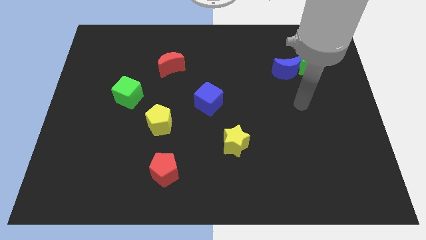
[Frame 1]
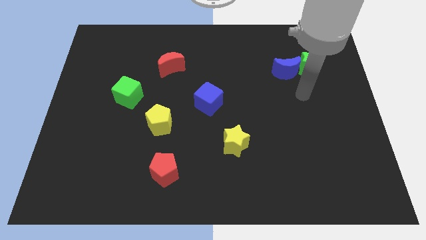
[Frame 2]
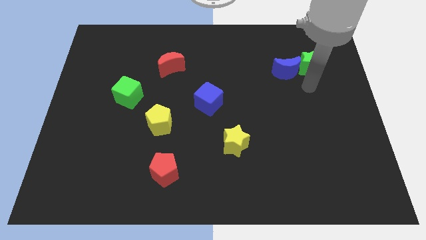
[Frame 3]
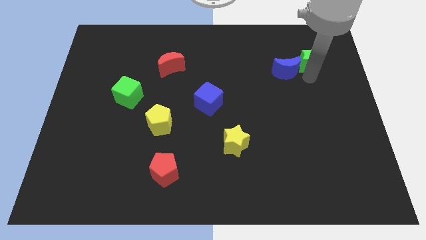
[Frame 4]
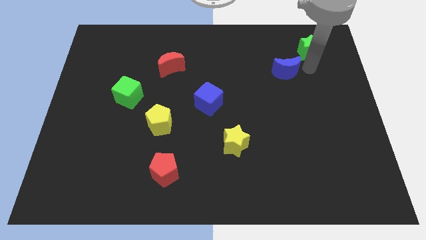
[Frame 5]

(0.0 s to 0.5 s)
move the blue moon away from the green star

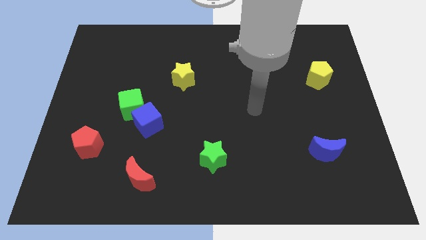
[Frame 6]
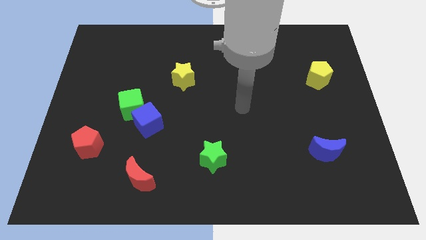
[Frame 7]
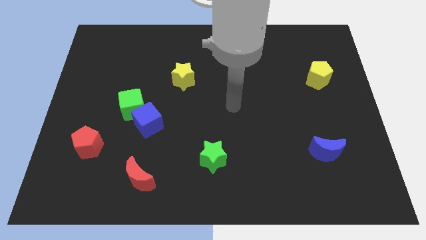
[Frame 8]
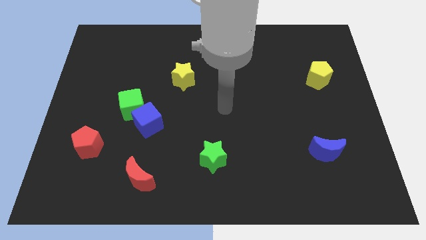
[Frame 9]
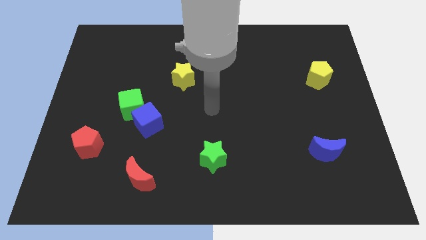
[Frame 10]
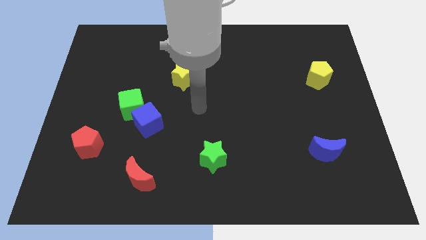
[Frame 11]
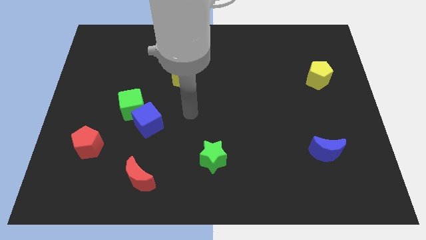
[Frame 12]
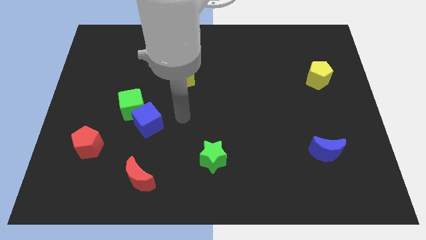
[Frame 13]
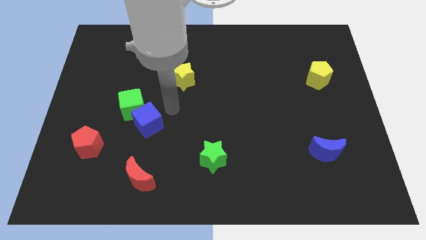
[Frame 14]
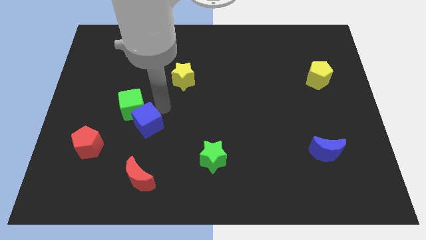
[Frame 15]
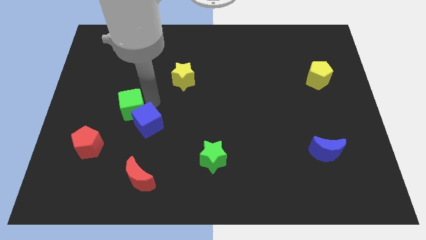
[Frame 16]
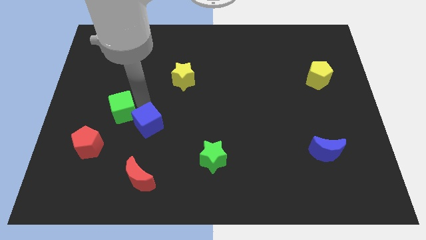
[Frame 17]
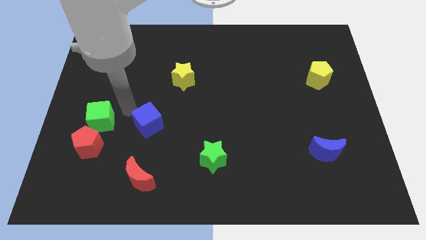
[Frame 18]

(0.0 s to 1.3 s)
move the blue cube away from the green cube

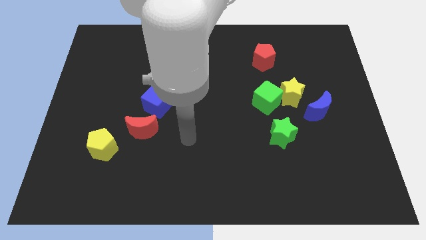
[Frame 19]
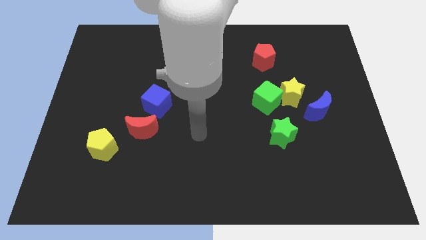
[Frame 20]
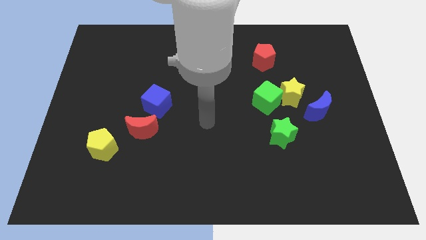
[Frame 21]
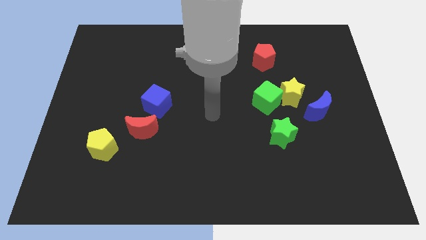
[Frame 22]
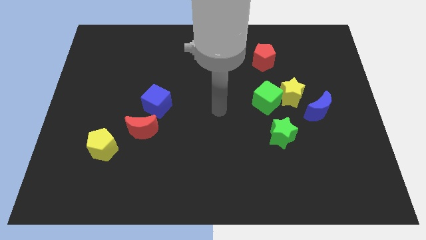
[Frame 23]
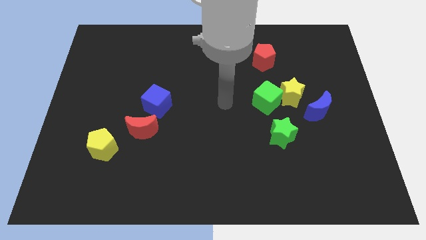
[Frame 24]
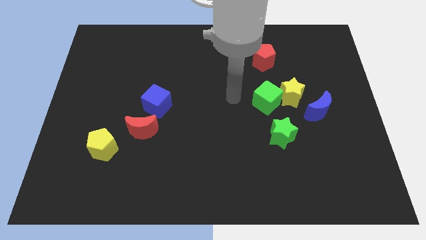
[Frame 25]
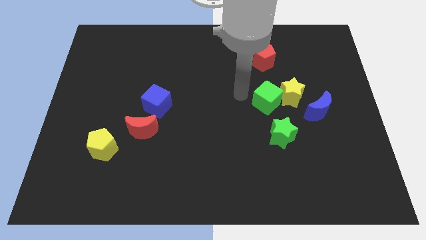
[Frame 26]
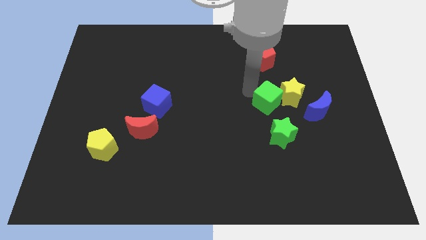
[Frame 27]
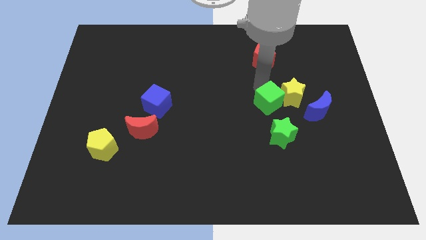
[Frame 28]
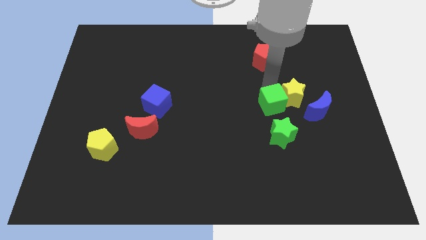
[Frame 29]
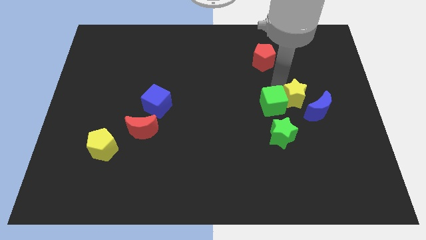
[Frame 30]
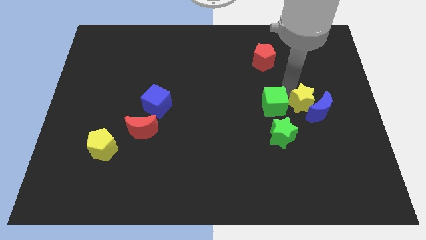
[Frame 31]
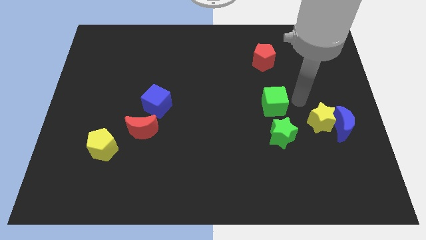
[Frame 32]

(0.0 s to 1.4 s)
pull the green cube apart from the yellow star

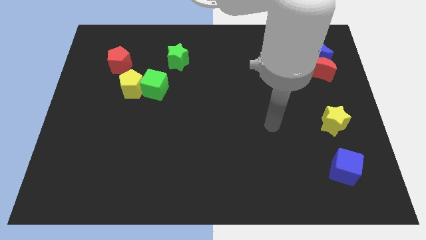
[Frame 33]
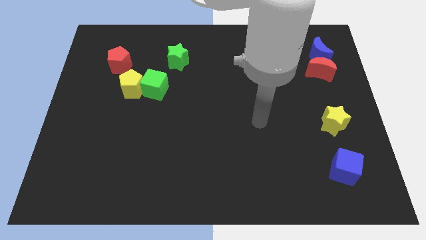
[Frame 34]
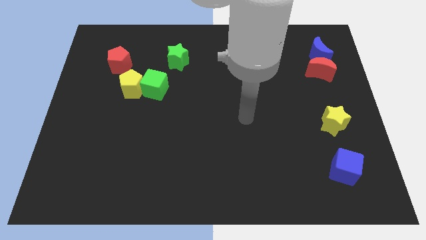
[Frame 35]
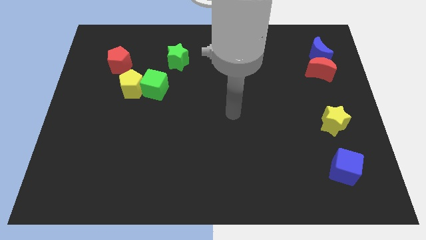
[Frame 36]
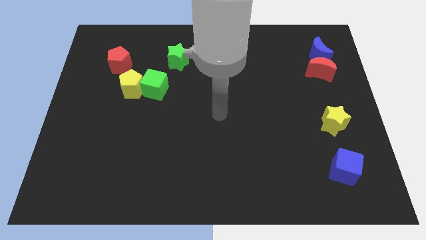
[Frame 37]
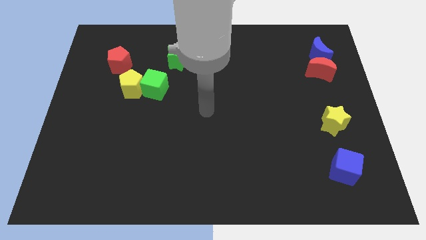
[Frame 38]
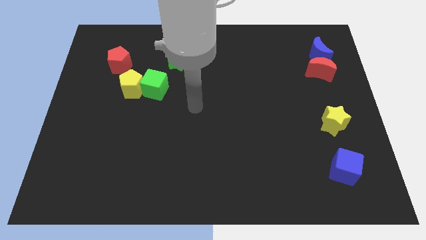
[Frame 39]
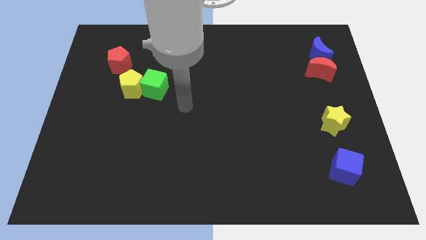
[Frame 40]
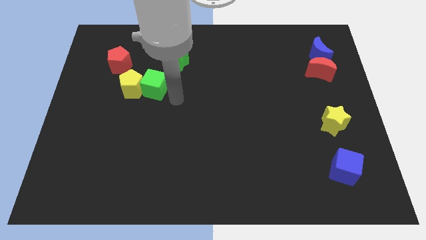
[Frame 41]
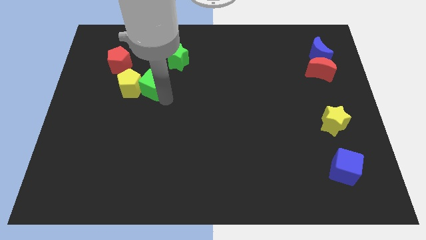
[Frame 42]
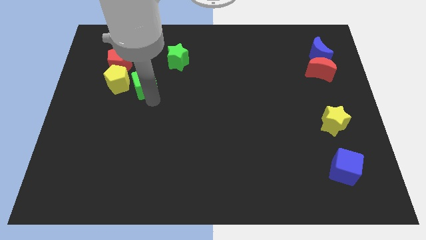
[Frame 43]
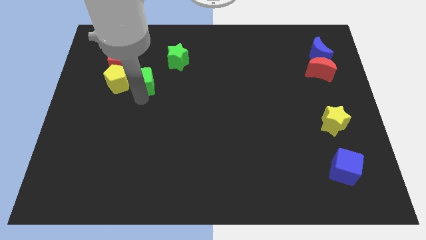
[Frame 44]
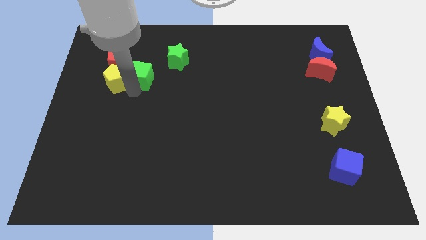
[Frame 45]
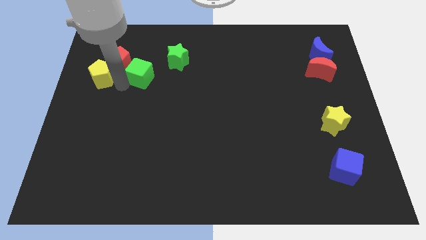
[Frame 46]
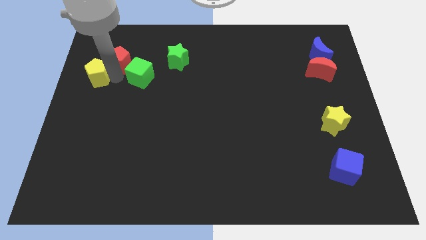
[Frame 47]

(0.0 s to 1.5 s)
pull the green cube apart from the yellow pentagon

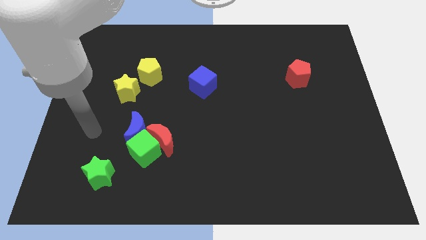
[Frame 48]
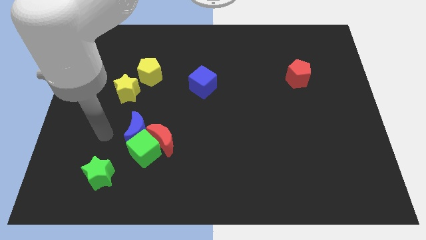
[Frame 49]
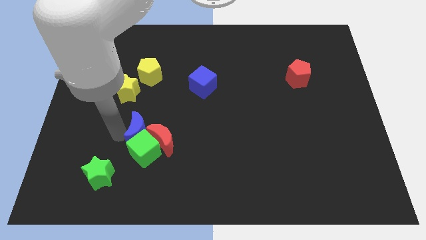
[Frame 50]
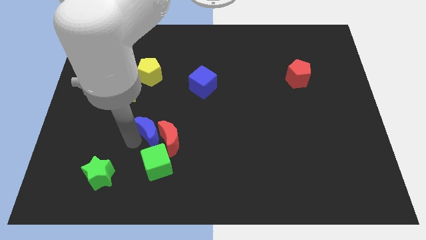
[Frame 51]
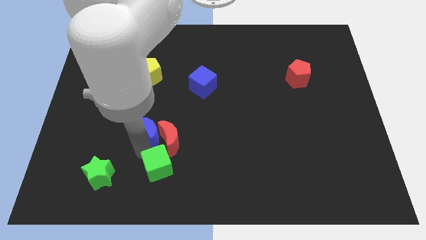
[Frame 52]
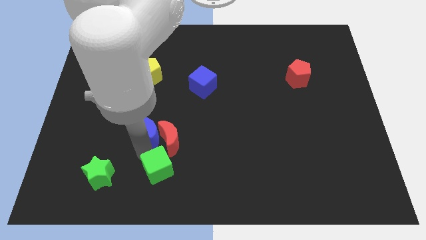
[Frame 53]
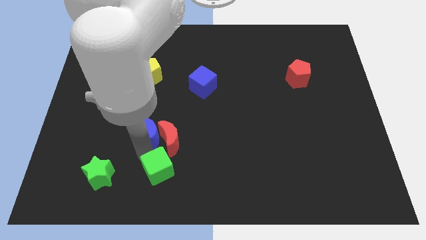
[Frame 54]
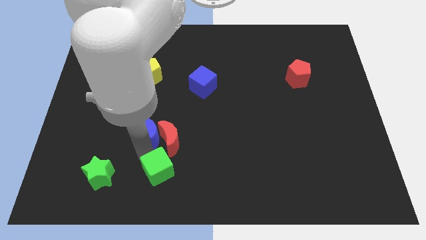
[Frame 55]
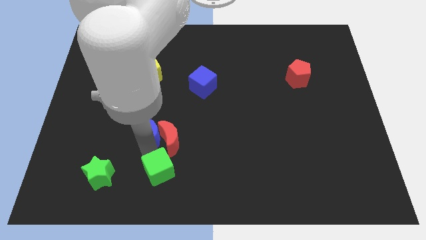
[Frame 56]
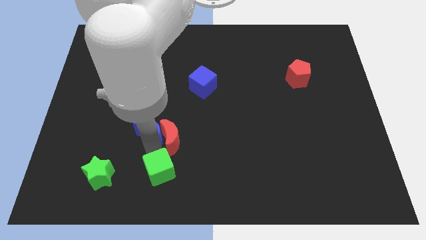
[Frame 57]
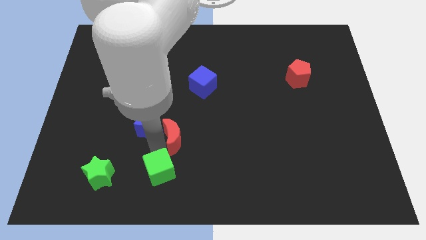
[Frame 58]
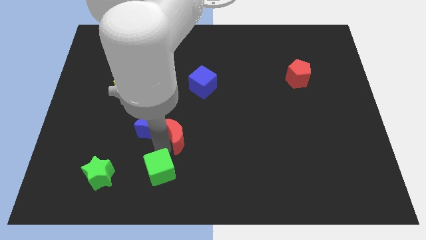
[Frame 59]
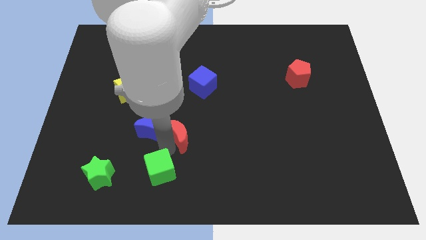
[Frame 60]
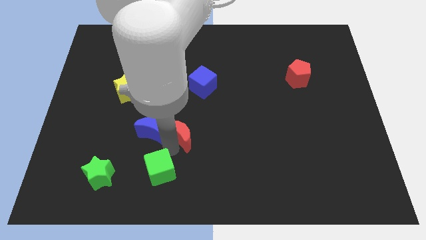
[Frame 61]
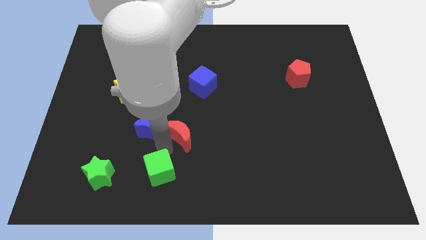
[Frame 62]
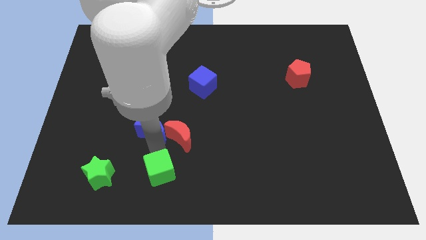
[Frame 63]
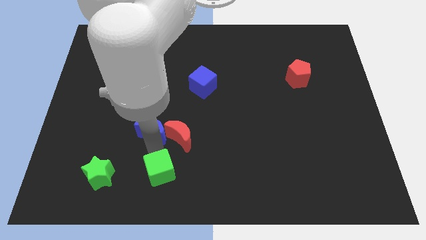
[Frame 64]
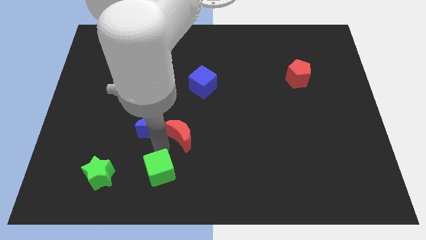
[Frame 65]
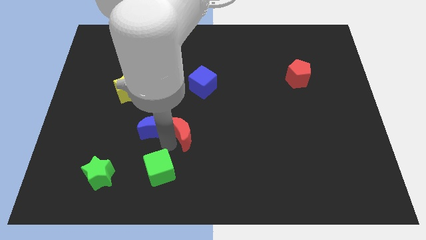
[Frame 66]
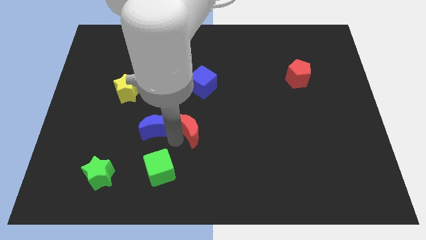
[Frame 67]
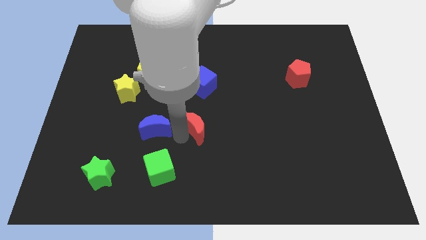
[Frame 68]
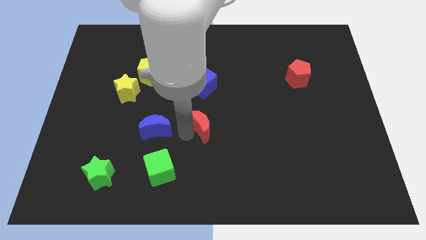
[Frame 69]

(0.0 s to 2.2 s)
pull the red moon apart from the green cube and blue moon

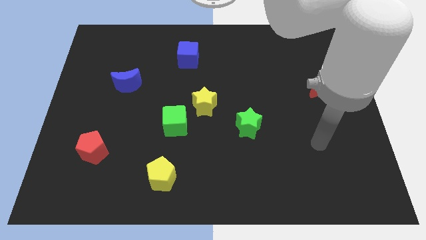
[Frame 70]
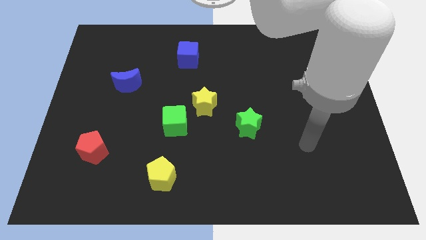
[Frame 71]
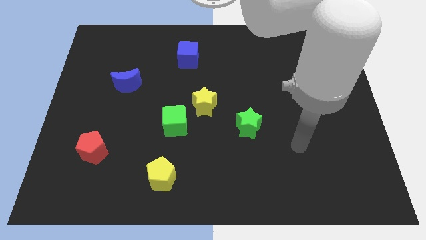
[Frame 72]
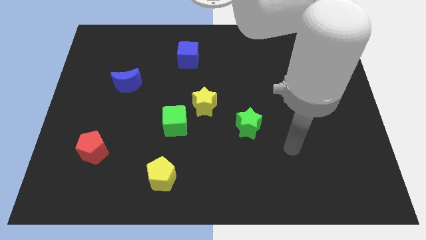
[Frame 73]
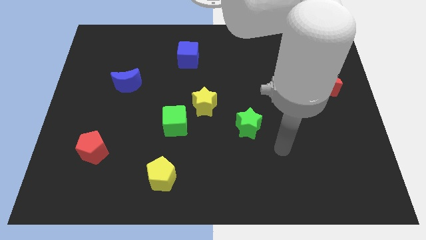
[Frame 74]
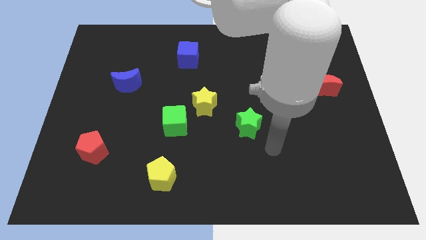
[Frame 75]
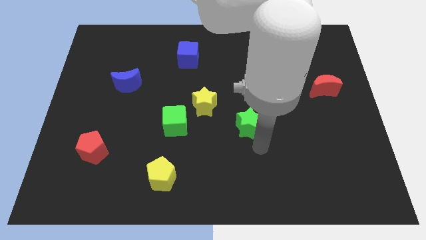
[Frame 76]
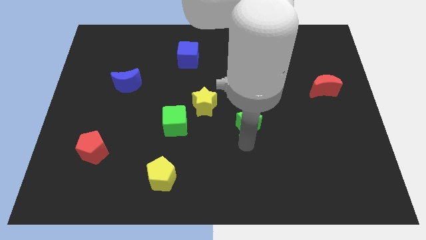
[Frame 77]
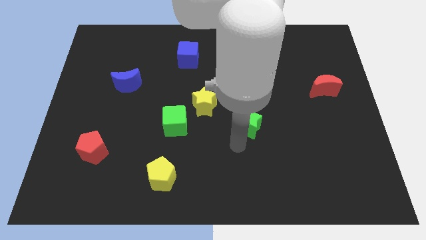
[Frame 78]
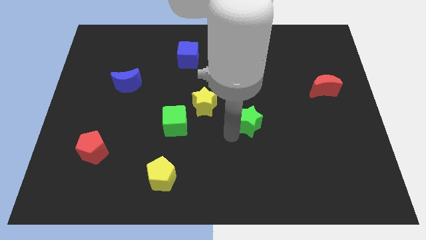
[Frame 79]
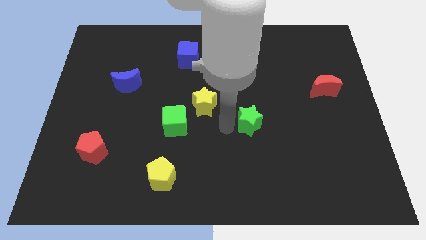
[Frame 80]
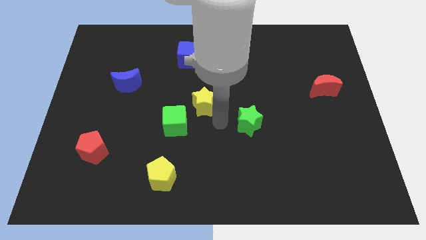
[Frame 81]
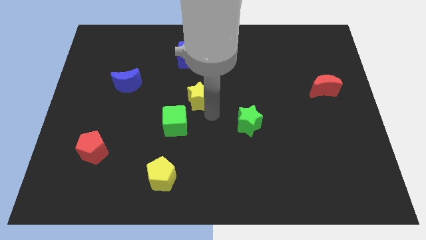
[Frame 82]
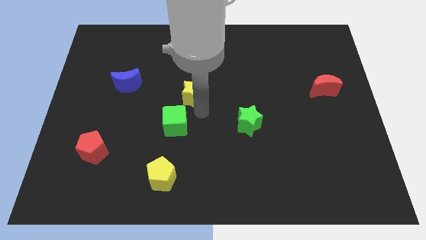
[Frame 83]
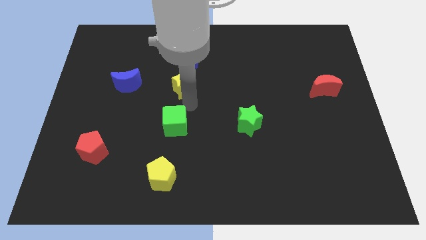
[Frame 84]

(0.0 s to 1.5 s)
move the green cube away from the yellow star

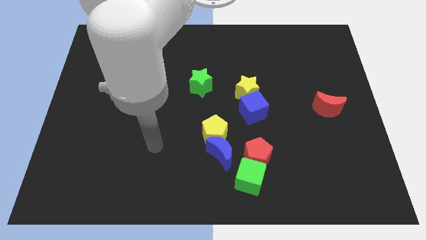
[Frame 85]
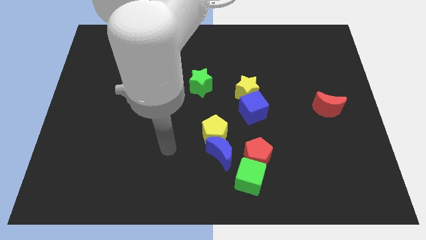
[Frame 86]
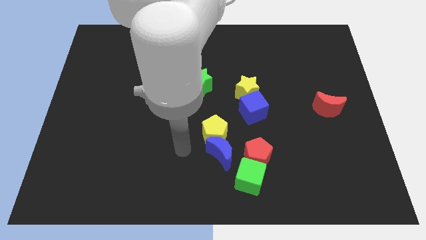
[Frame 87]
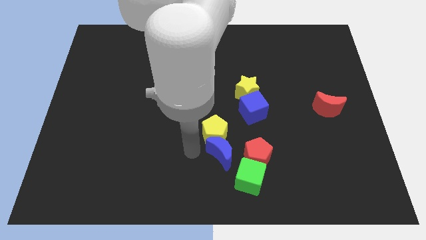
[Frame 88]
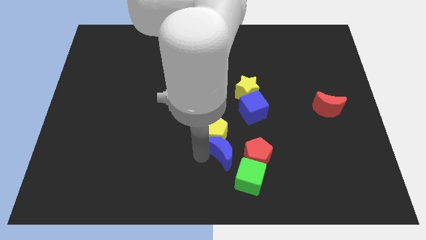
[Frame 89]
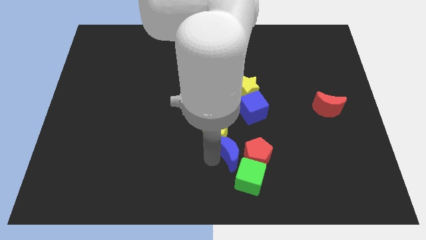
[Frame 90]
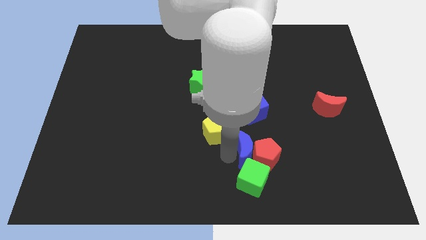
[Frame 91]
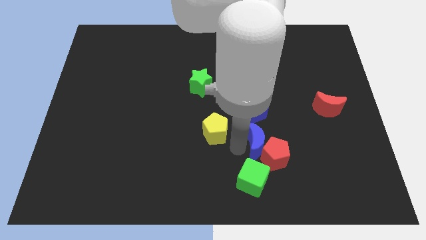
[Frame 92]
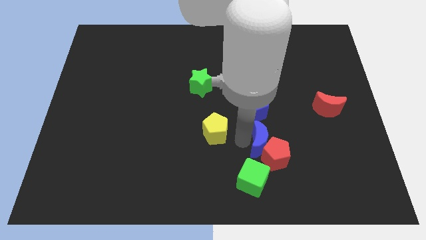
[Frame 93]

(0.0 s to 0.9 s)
separate the yellow pentagon from the blue moon
